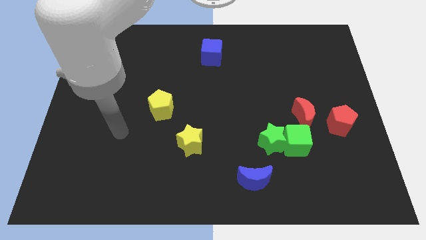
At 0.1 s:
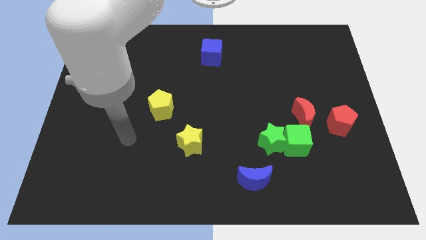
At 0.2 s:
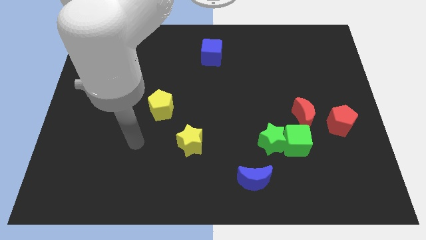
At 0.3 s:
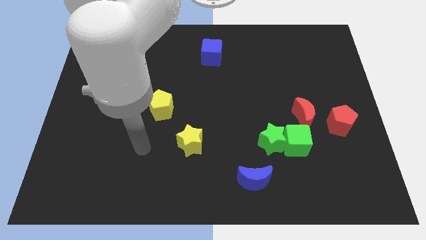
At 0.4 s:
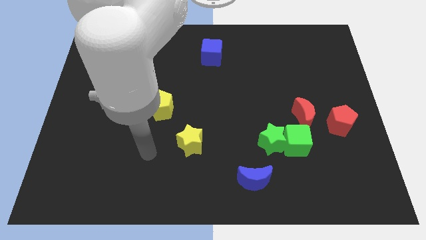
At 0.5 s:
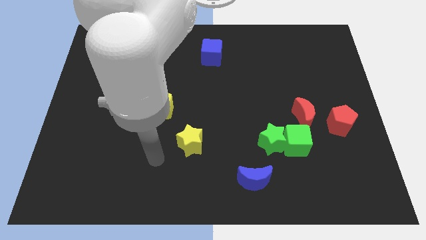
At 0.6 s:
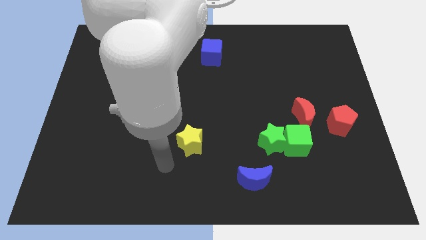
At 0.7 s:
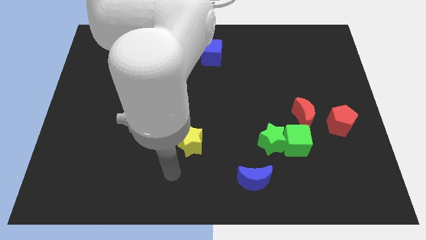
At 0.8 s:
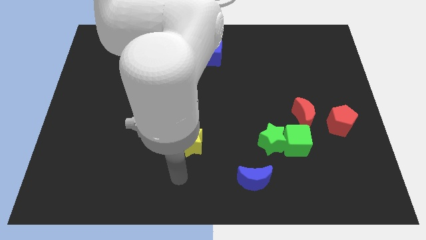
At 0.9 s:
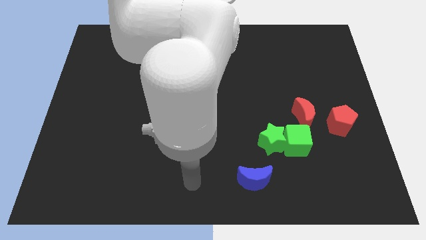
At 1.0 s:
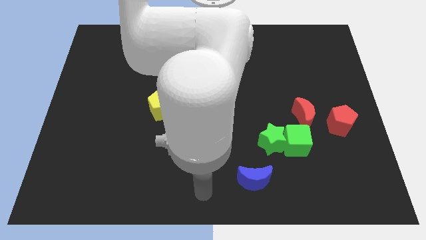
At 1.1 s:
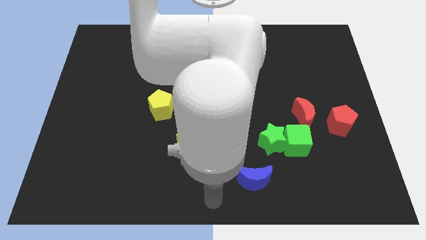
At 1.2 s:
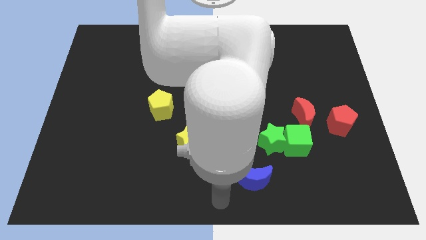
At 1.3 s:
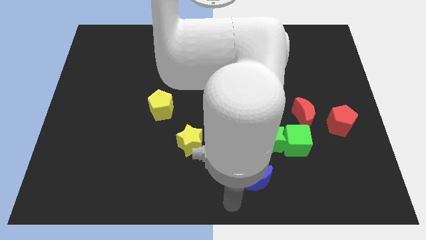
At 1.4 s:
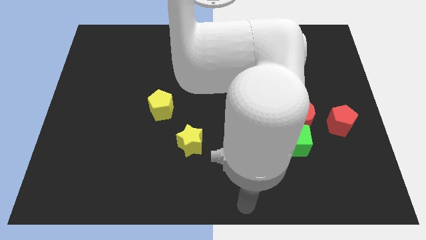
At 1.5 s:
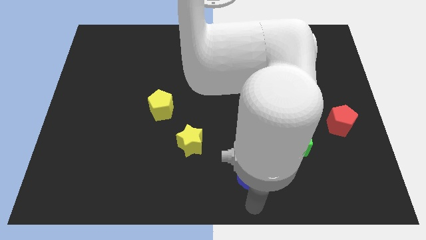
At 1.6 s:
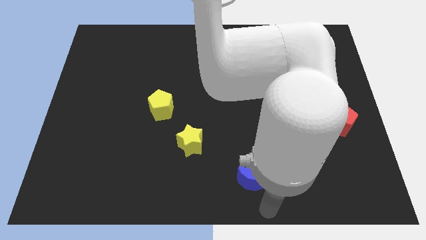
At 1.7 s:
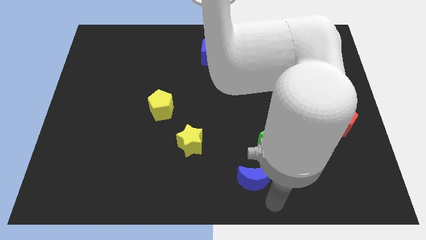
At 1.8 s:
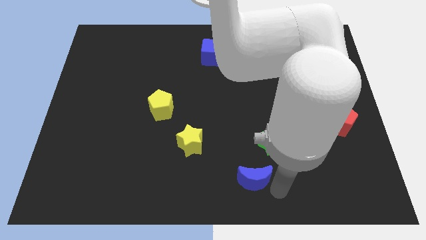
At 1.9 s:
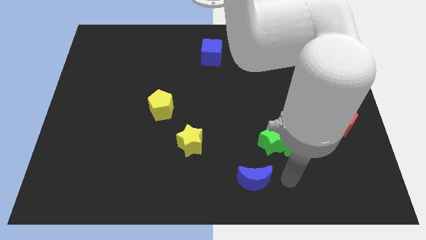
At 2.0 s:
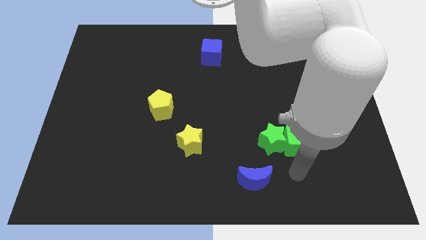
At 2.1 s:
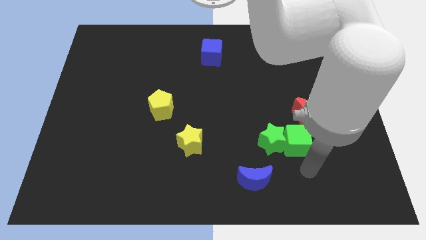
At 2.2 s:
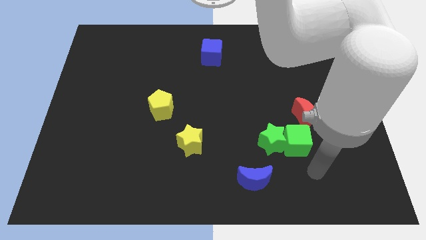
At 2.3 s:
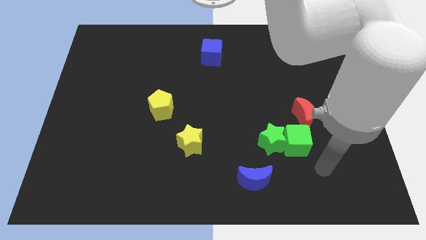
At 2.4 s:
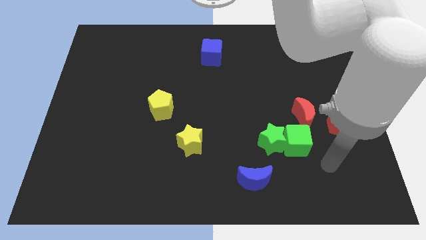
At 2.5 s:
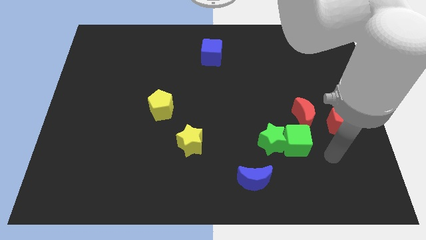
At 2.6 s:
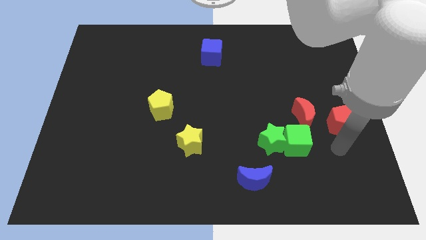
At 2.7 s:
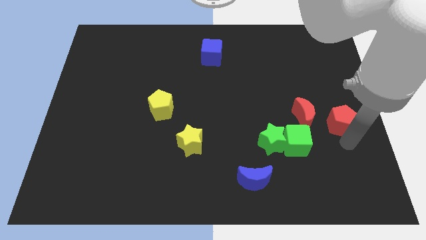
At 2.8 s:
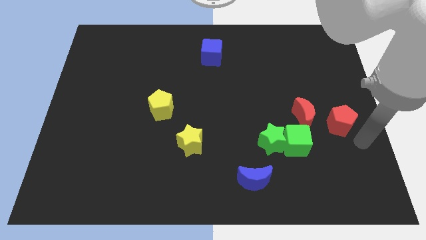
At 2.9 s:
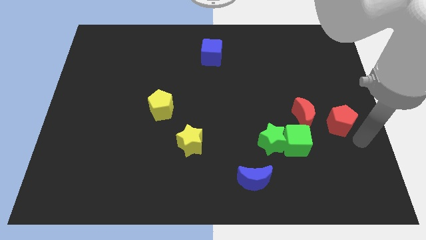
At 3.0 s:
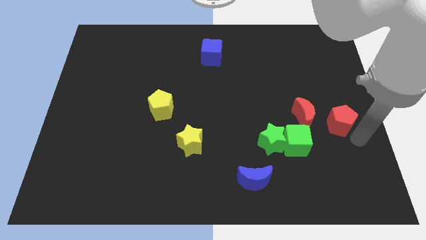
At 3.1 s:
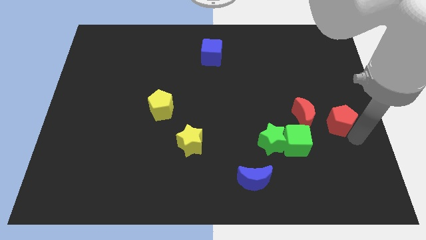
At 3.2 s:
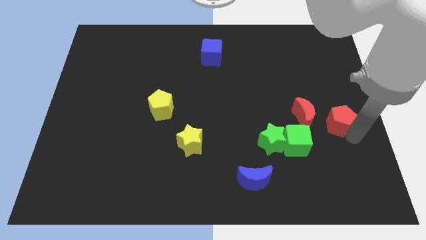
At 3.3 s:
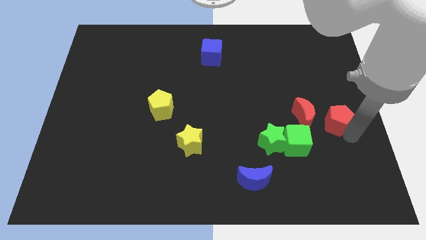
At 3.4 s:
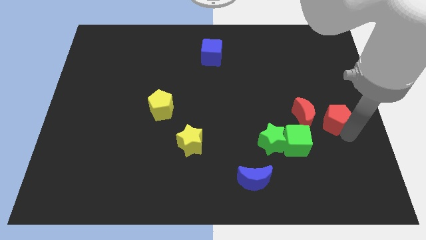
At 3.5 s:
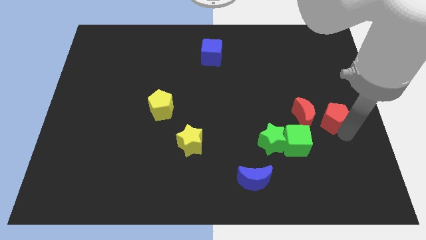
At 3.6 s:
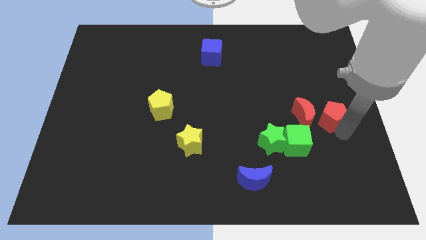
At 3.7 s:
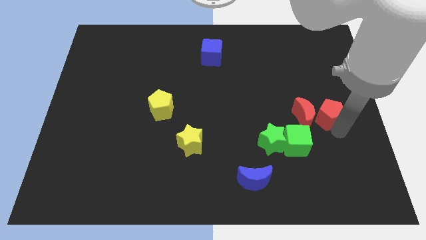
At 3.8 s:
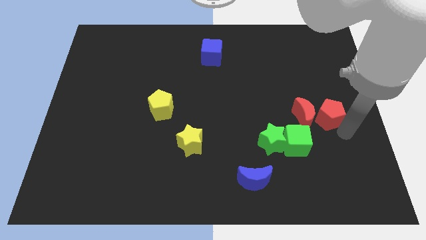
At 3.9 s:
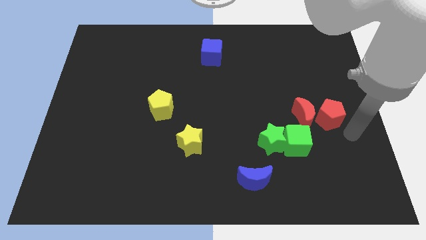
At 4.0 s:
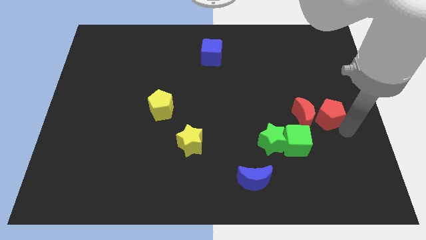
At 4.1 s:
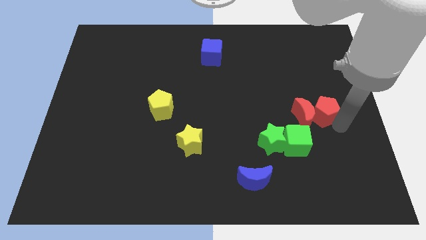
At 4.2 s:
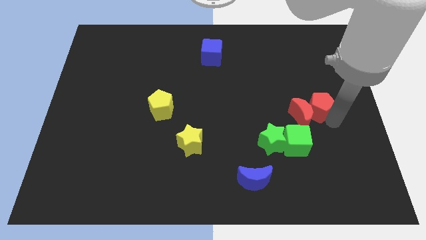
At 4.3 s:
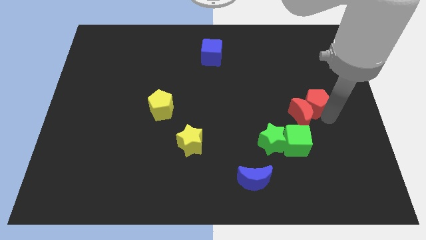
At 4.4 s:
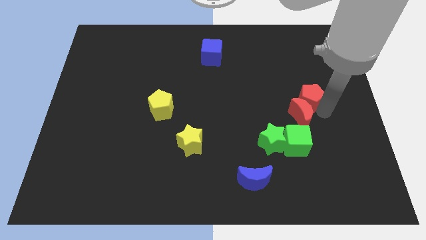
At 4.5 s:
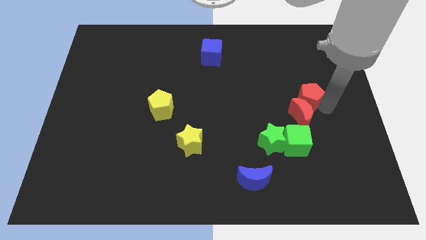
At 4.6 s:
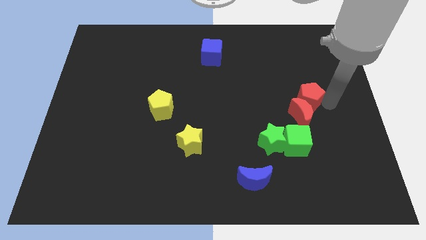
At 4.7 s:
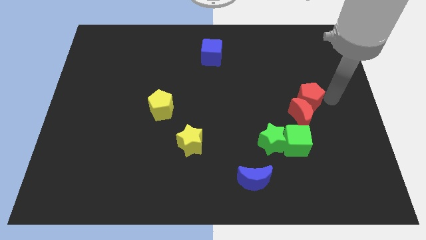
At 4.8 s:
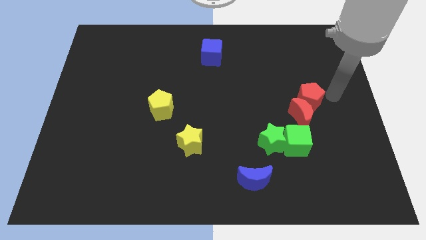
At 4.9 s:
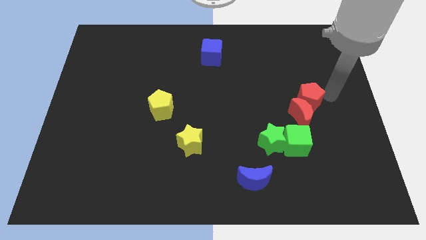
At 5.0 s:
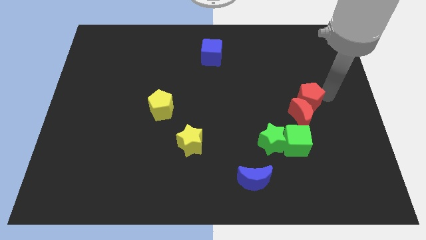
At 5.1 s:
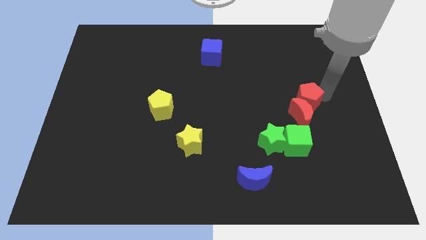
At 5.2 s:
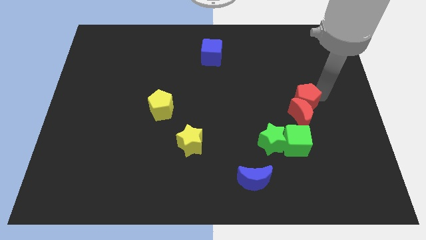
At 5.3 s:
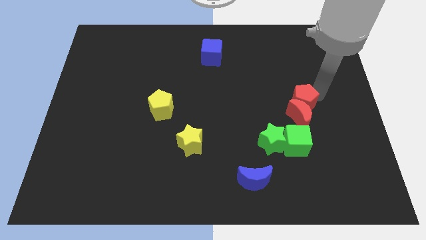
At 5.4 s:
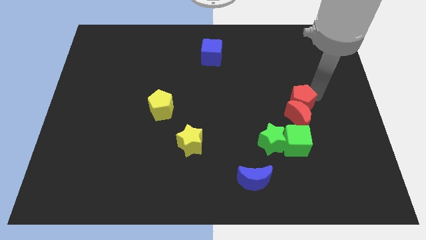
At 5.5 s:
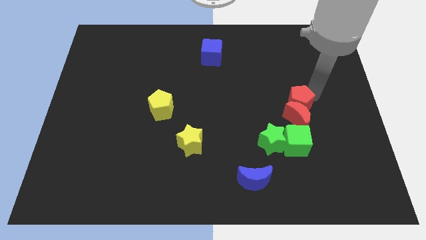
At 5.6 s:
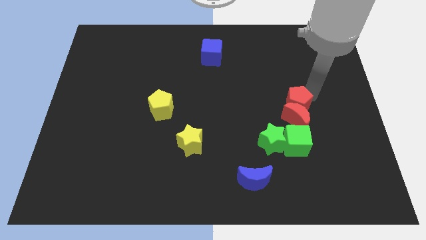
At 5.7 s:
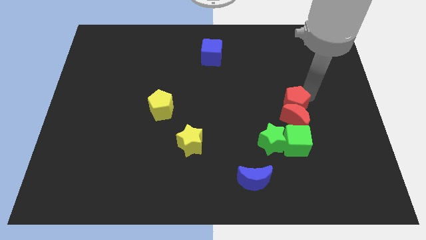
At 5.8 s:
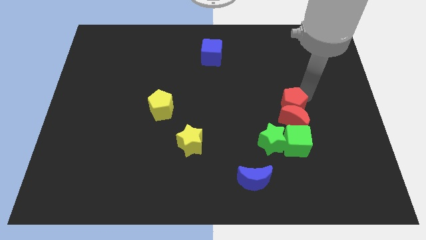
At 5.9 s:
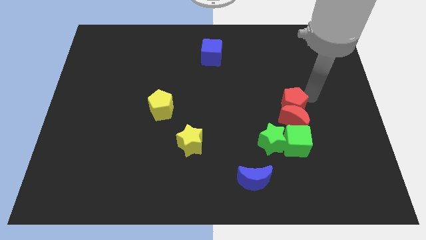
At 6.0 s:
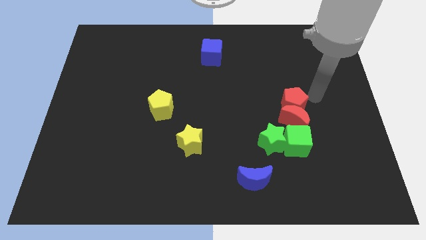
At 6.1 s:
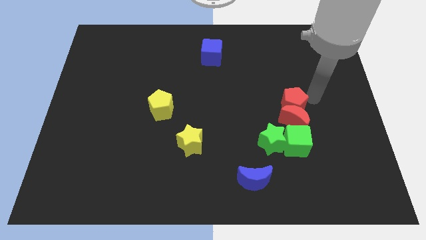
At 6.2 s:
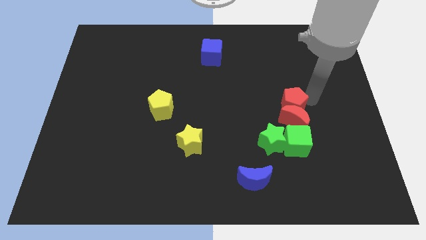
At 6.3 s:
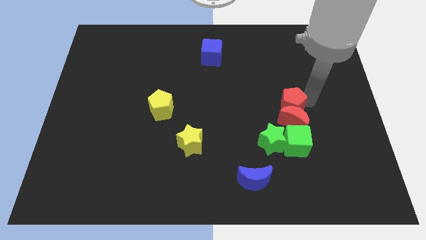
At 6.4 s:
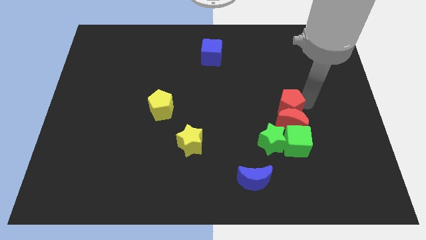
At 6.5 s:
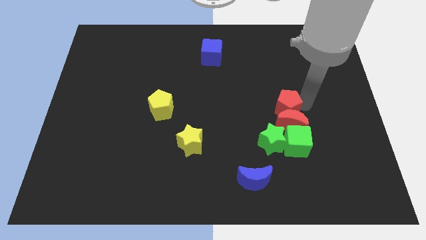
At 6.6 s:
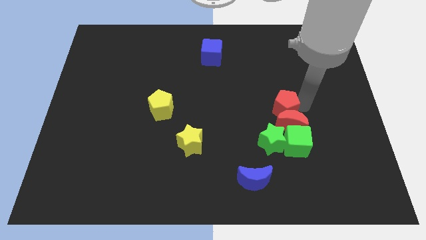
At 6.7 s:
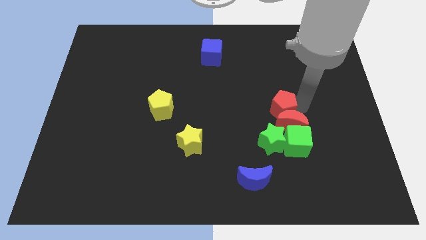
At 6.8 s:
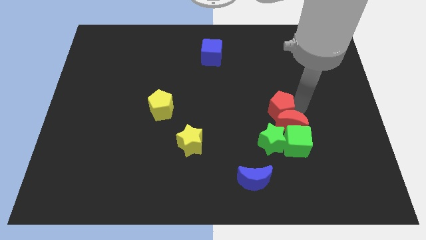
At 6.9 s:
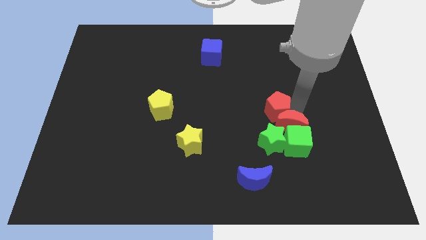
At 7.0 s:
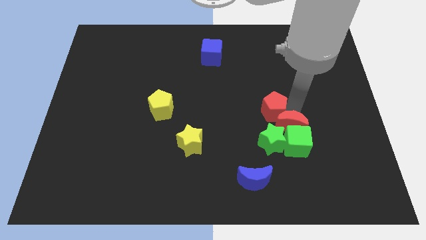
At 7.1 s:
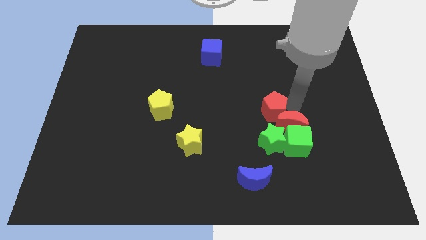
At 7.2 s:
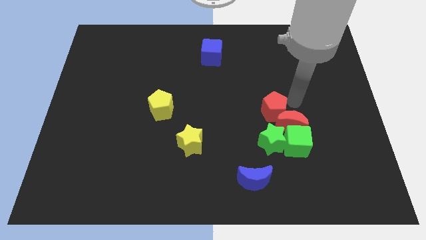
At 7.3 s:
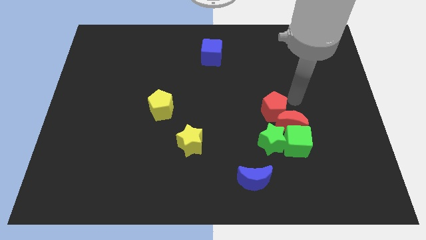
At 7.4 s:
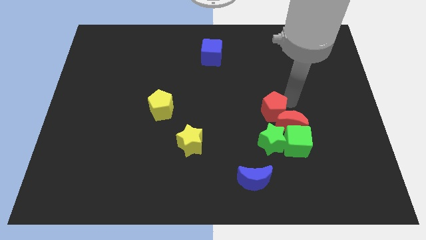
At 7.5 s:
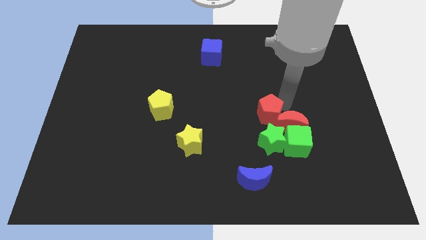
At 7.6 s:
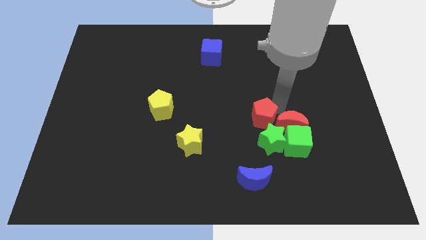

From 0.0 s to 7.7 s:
move the red pentagon diagonally up and to the left of the green star

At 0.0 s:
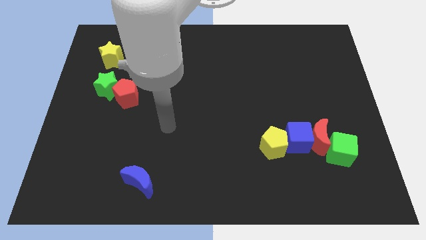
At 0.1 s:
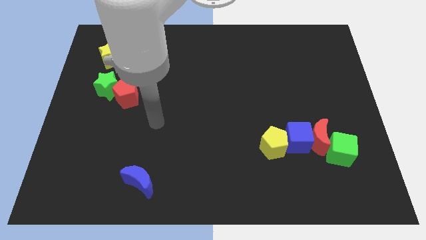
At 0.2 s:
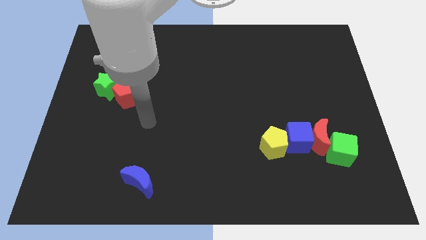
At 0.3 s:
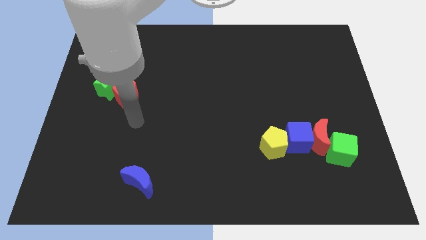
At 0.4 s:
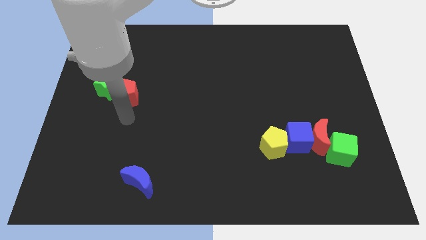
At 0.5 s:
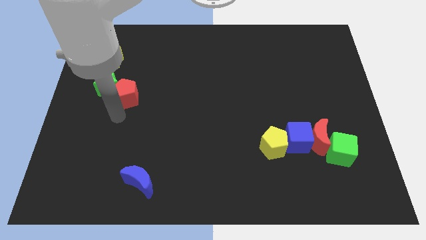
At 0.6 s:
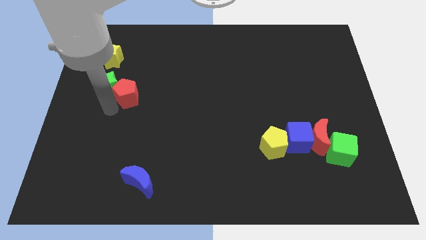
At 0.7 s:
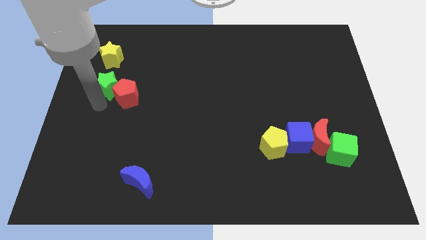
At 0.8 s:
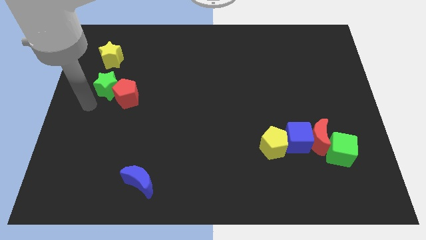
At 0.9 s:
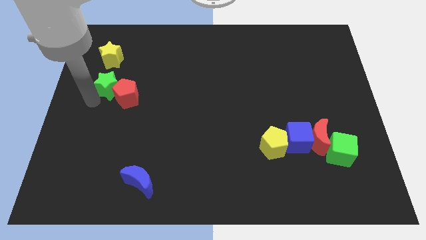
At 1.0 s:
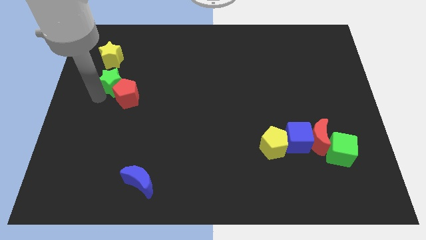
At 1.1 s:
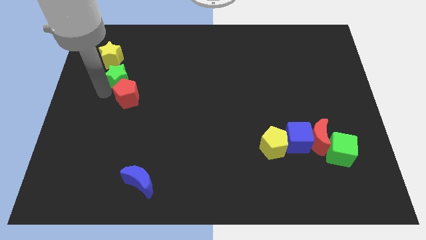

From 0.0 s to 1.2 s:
move the green star to the bottom right of the yellow star
